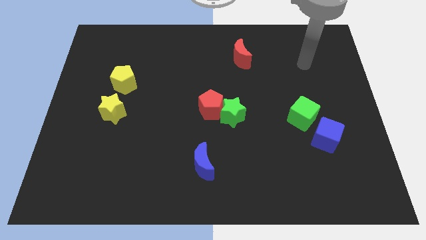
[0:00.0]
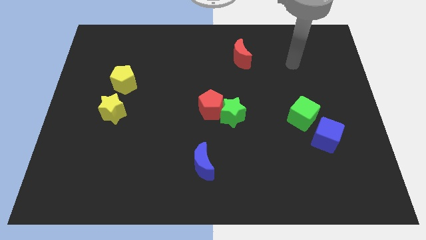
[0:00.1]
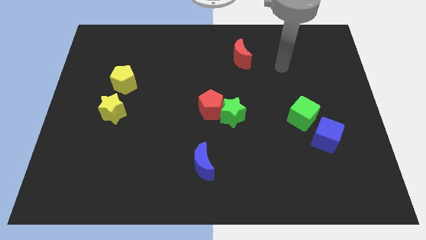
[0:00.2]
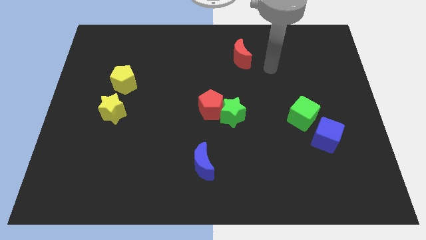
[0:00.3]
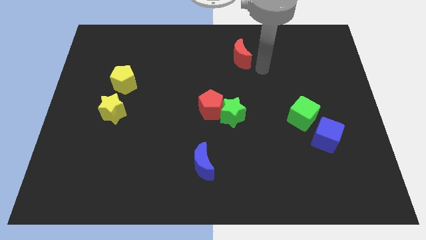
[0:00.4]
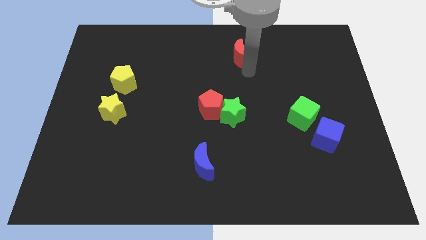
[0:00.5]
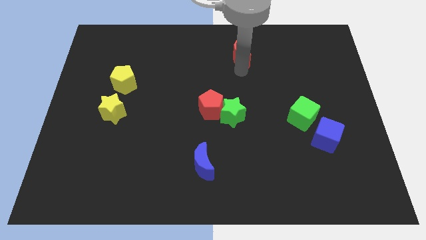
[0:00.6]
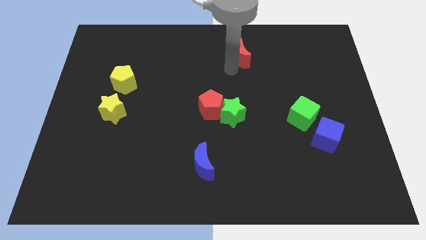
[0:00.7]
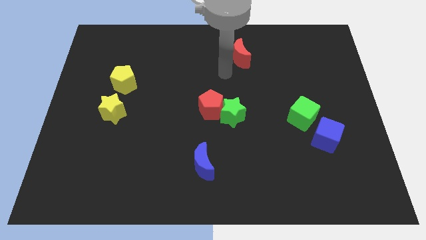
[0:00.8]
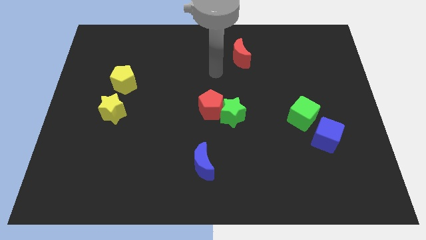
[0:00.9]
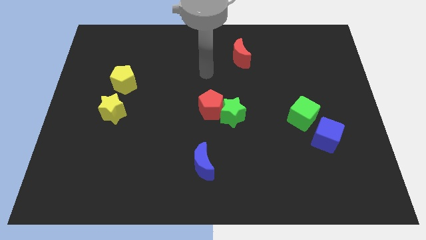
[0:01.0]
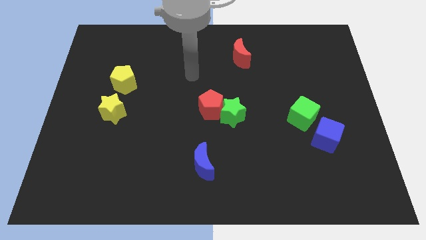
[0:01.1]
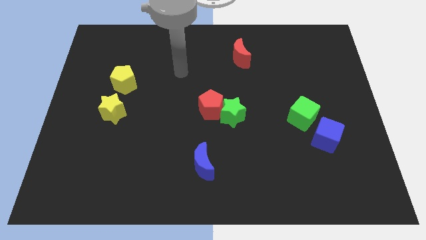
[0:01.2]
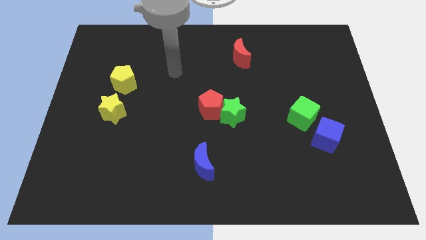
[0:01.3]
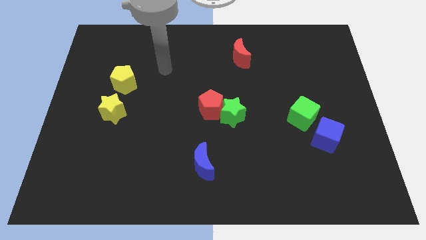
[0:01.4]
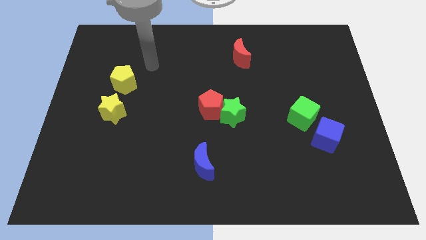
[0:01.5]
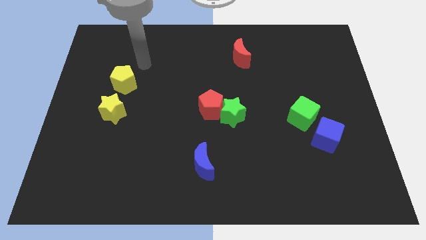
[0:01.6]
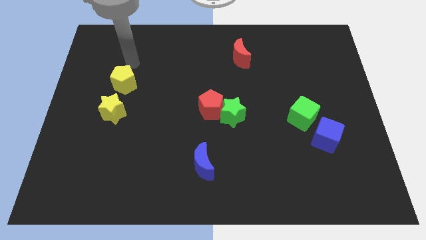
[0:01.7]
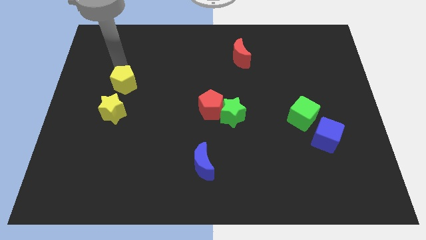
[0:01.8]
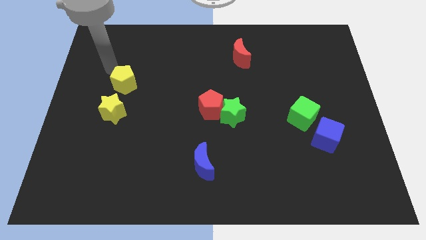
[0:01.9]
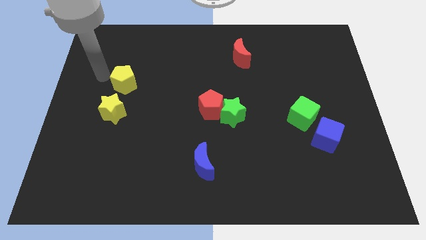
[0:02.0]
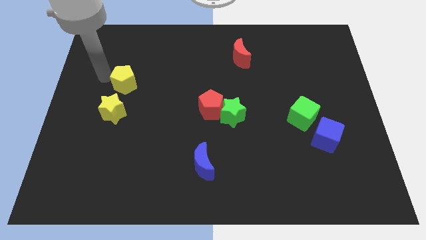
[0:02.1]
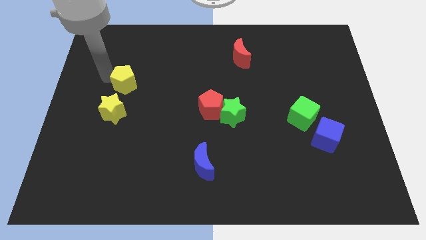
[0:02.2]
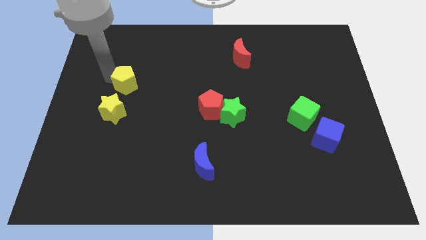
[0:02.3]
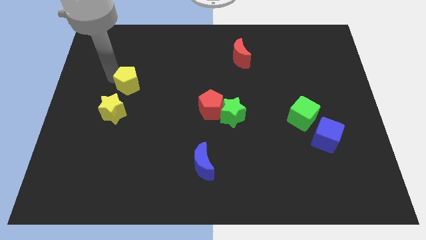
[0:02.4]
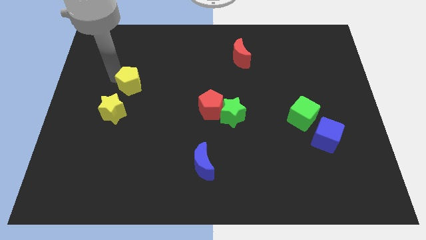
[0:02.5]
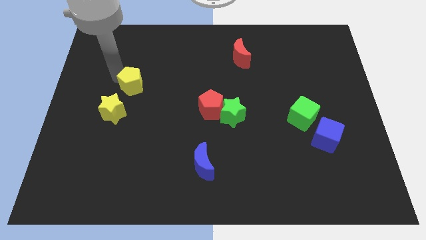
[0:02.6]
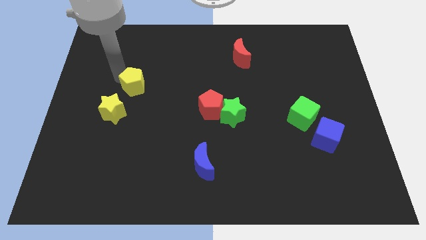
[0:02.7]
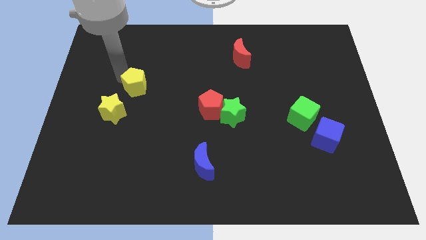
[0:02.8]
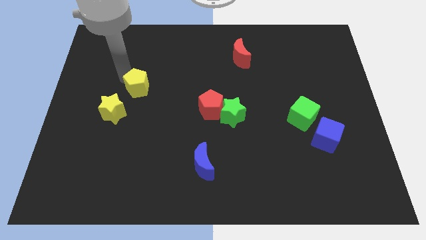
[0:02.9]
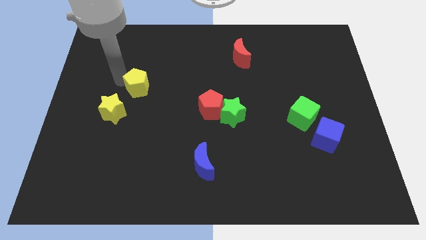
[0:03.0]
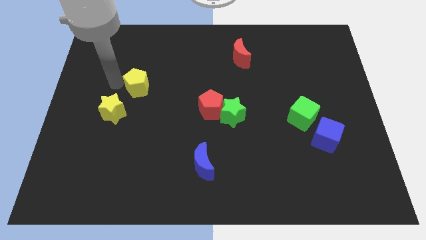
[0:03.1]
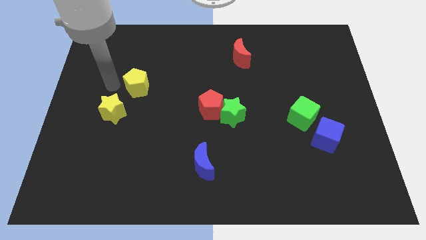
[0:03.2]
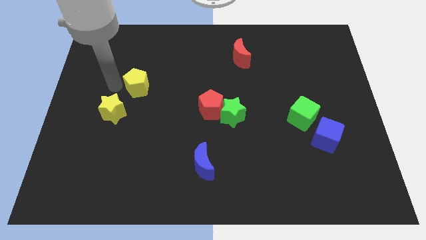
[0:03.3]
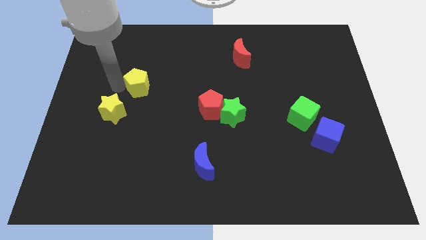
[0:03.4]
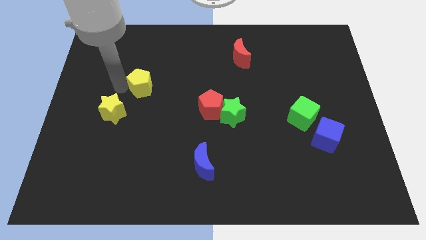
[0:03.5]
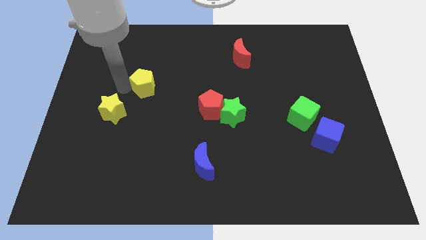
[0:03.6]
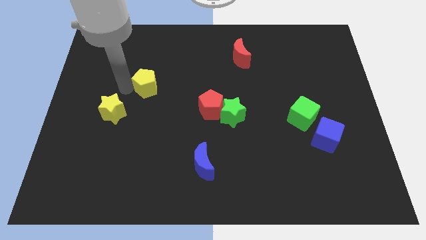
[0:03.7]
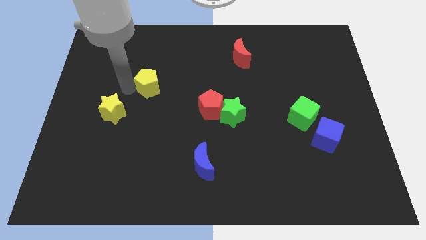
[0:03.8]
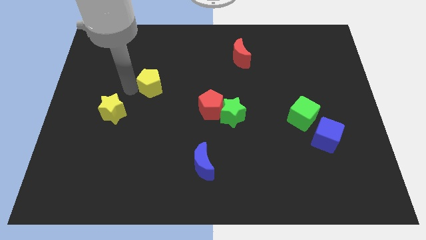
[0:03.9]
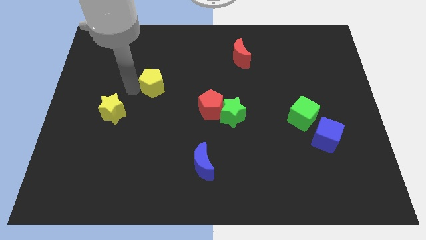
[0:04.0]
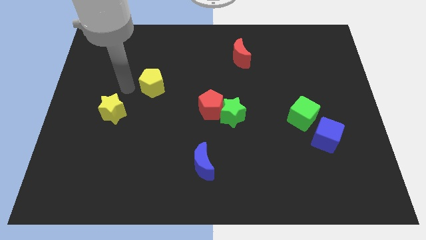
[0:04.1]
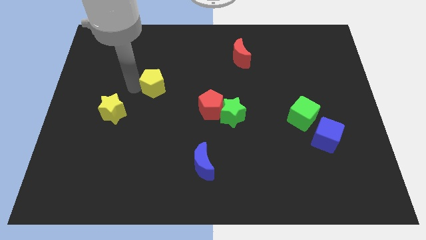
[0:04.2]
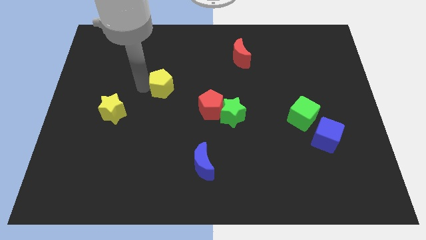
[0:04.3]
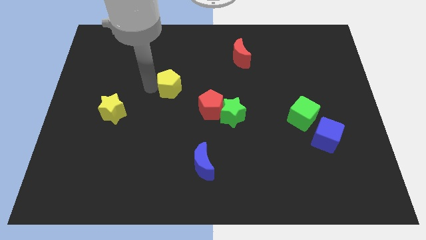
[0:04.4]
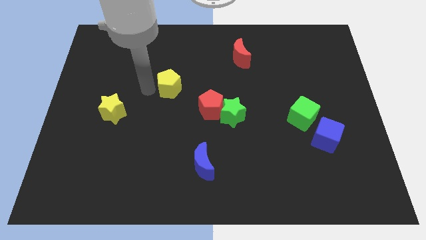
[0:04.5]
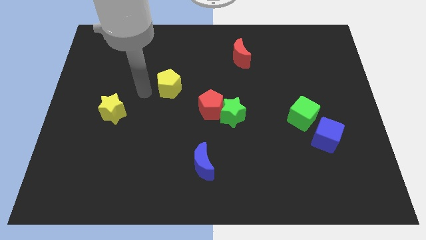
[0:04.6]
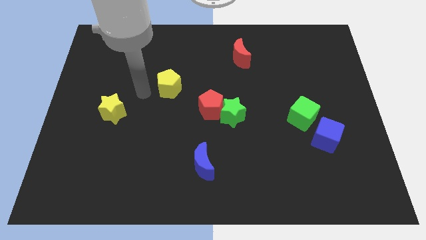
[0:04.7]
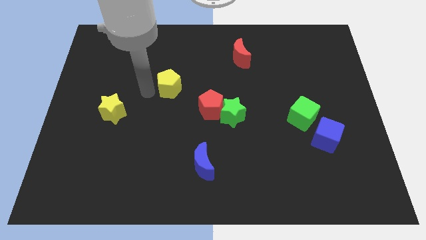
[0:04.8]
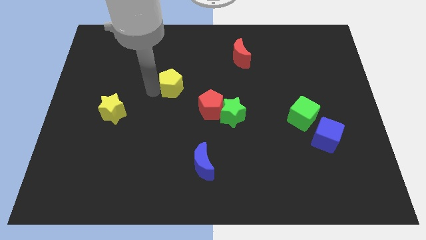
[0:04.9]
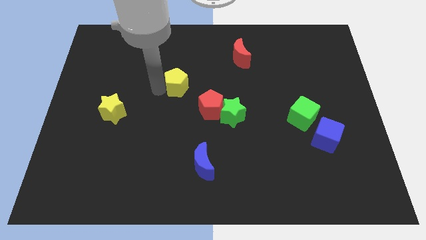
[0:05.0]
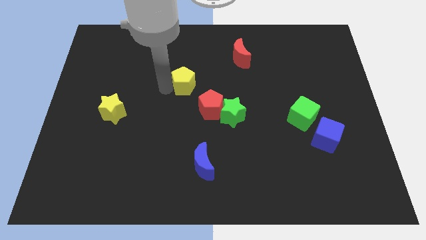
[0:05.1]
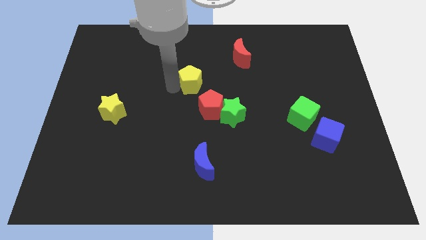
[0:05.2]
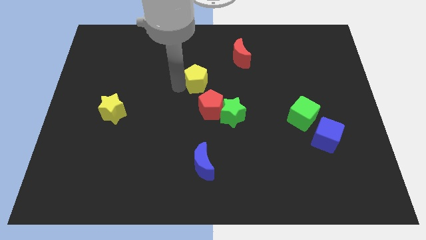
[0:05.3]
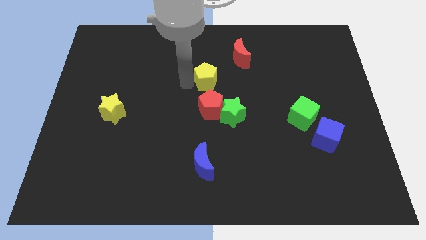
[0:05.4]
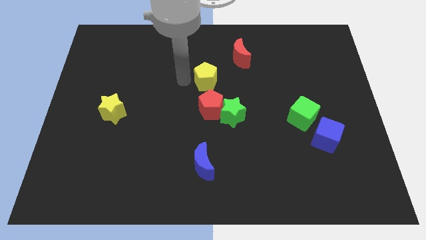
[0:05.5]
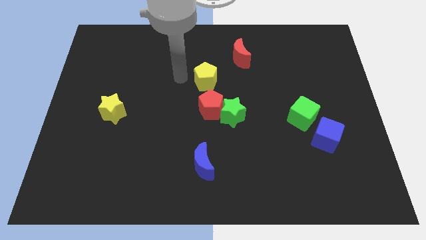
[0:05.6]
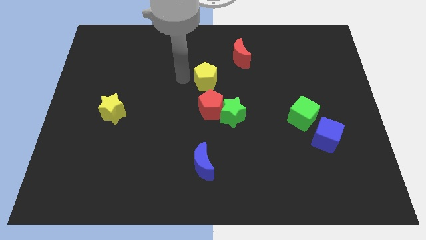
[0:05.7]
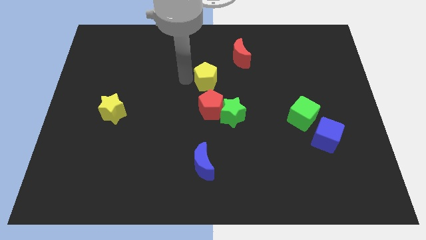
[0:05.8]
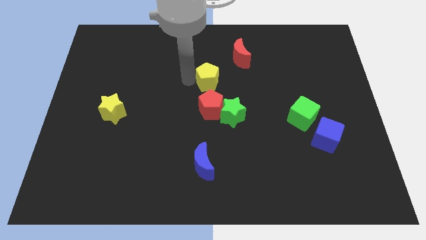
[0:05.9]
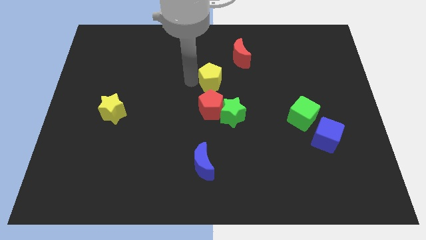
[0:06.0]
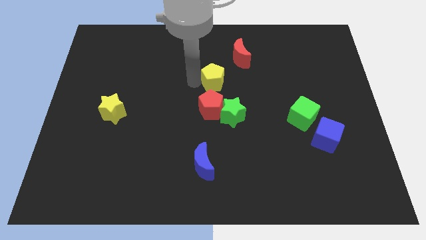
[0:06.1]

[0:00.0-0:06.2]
push the yellow pentagon to the top side of the green star
